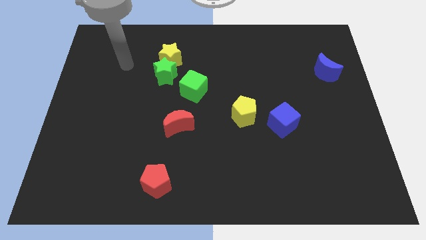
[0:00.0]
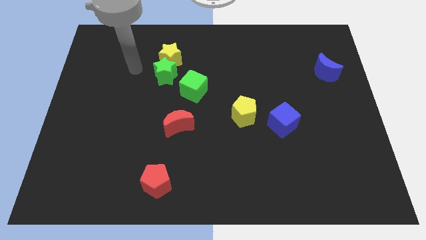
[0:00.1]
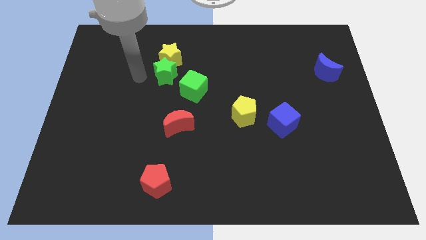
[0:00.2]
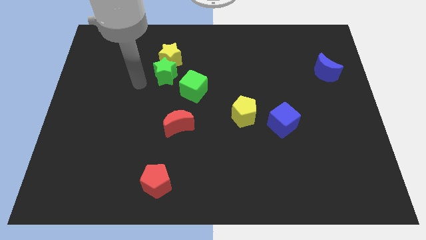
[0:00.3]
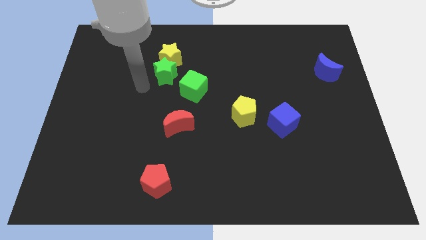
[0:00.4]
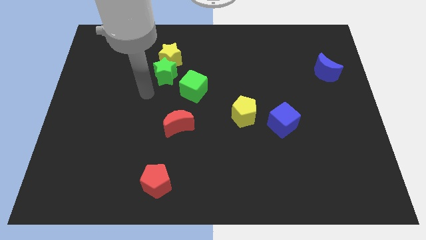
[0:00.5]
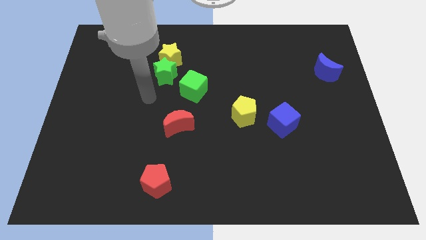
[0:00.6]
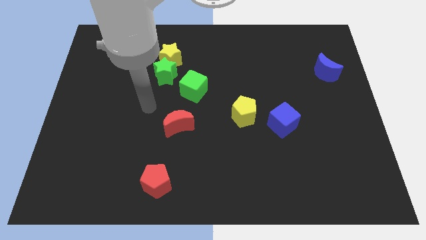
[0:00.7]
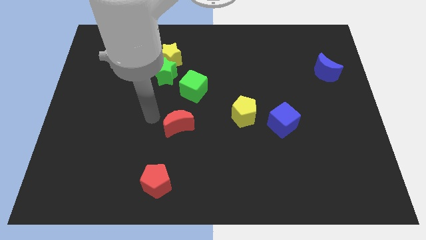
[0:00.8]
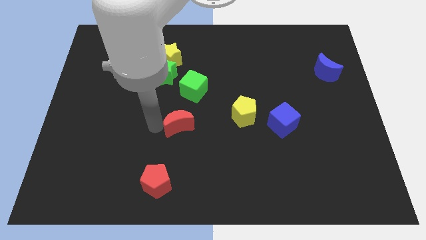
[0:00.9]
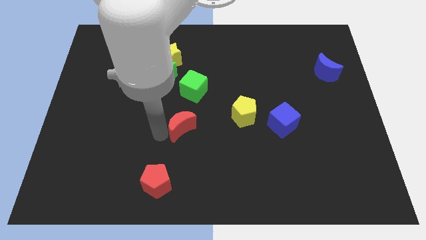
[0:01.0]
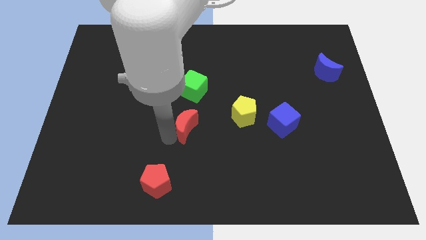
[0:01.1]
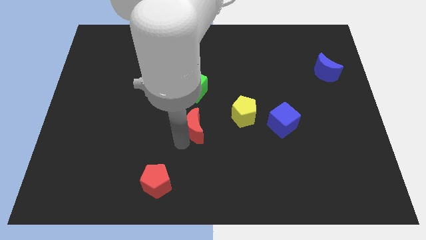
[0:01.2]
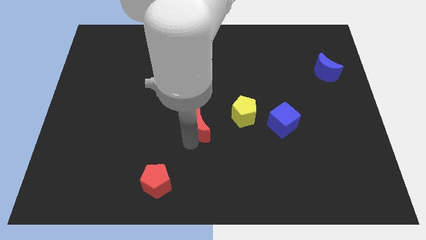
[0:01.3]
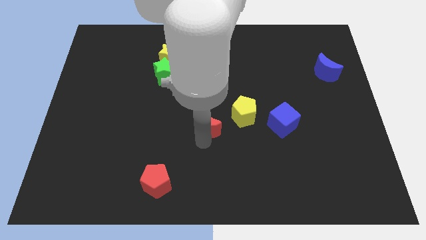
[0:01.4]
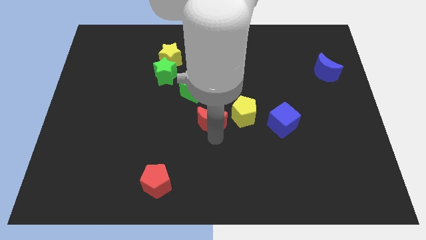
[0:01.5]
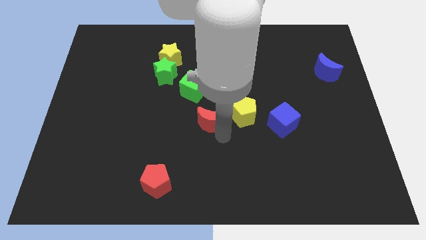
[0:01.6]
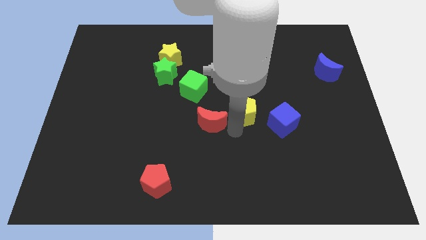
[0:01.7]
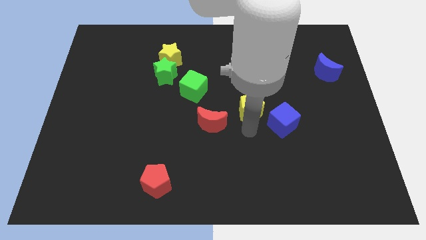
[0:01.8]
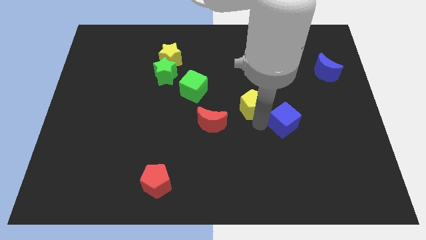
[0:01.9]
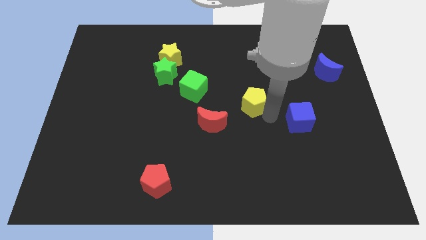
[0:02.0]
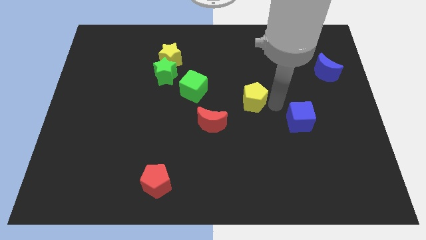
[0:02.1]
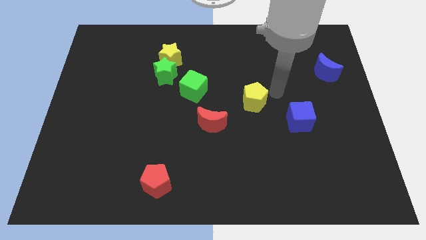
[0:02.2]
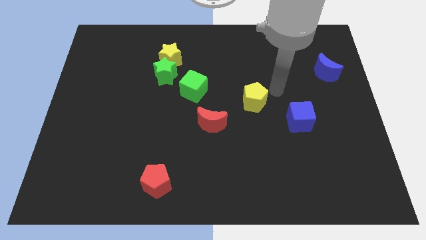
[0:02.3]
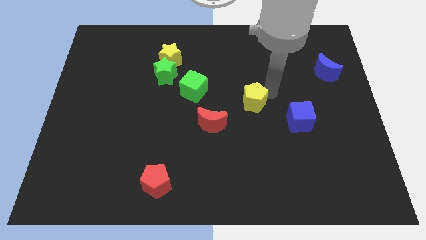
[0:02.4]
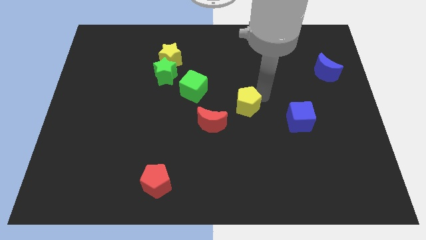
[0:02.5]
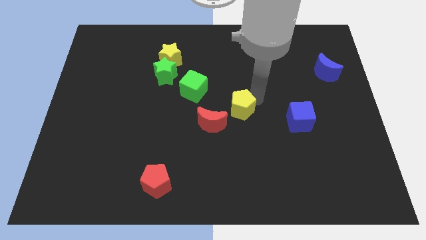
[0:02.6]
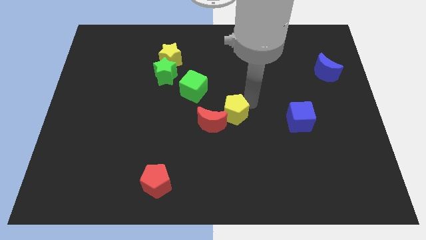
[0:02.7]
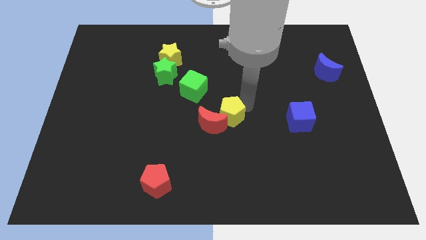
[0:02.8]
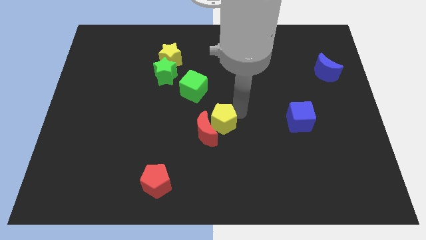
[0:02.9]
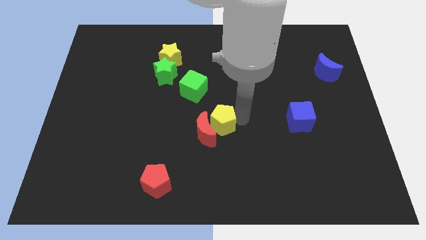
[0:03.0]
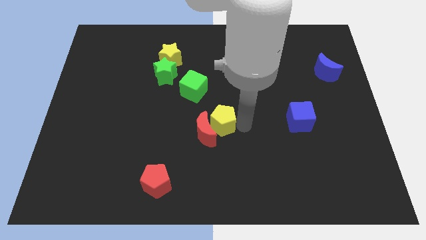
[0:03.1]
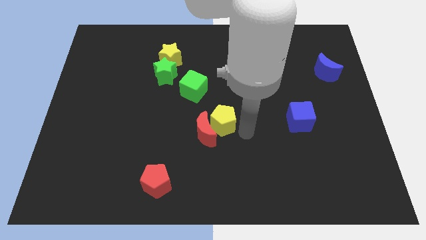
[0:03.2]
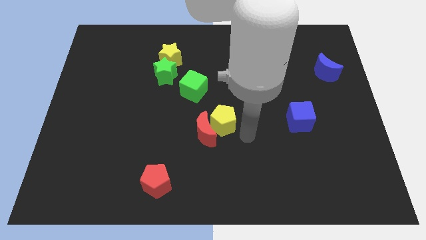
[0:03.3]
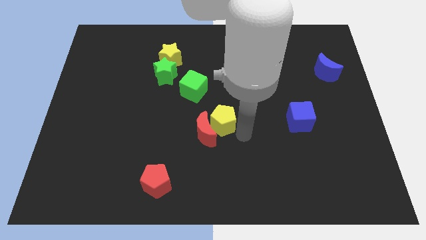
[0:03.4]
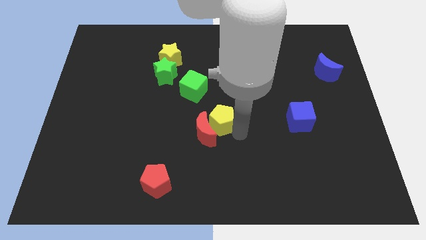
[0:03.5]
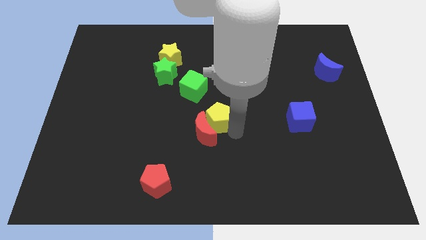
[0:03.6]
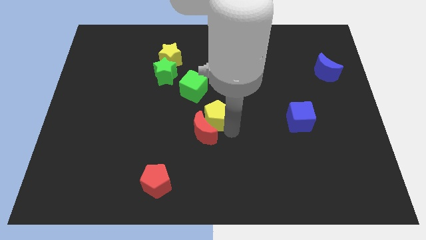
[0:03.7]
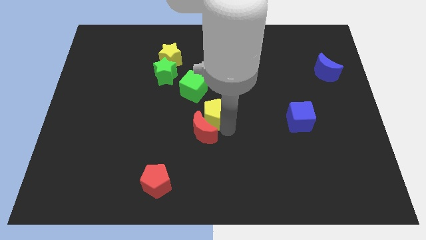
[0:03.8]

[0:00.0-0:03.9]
slightly slide the yellow pentagon to the left

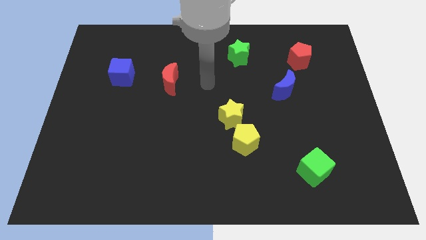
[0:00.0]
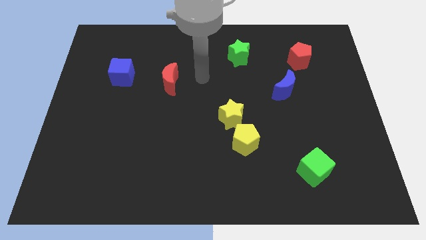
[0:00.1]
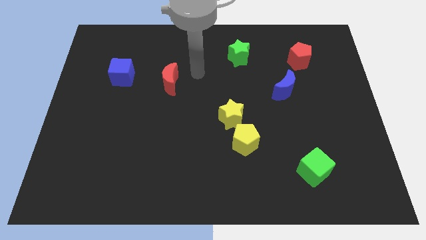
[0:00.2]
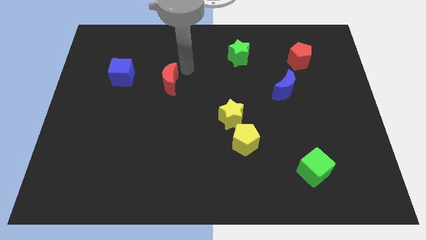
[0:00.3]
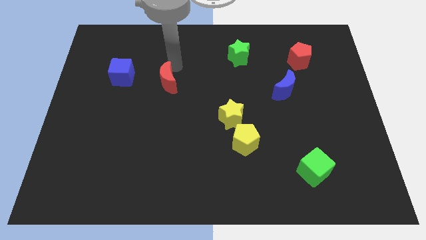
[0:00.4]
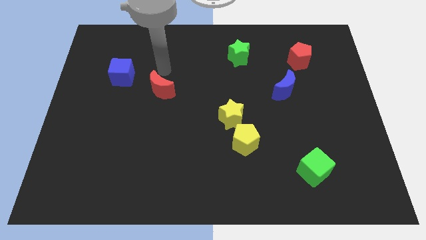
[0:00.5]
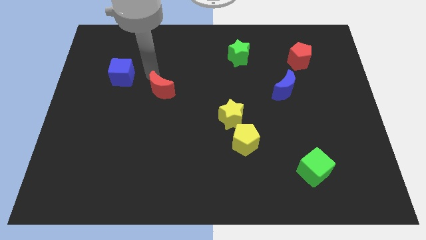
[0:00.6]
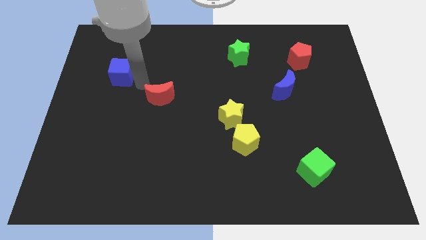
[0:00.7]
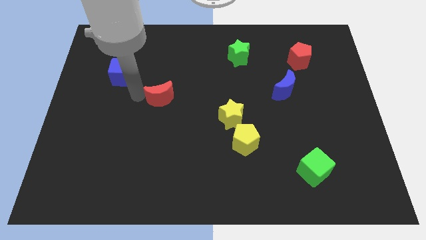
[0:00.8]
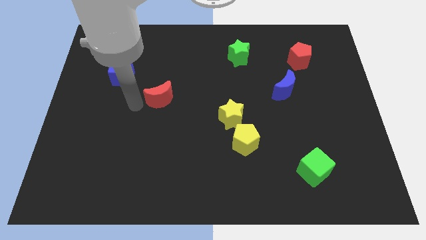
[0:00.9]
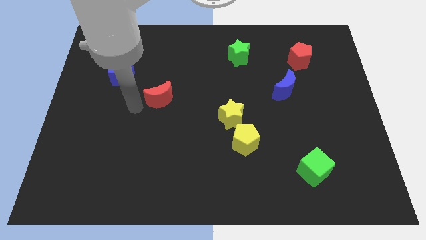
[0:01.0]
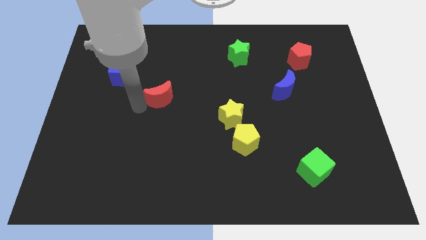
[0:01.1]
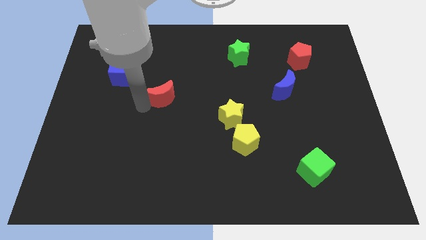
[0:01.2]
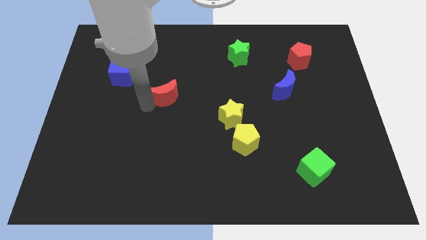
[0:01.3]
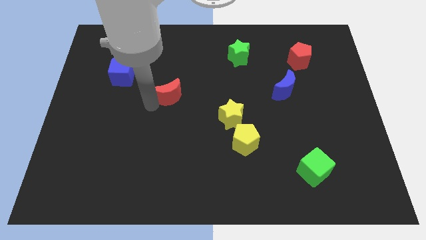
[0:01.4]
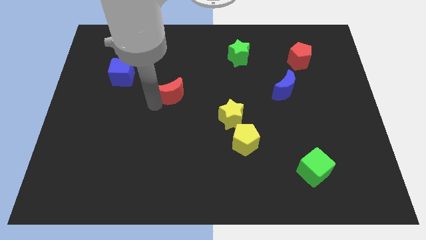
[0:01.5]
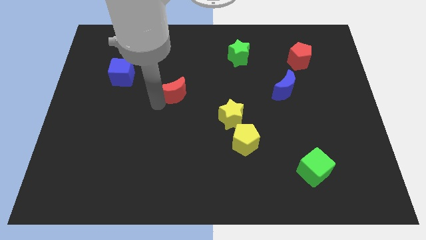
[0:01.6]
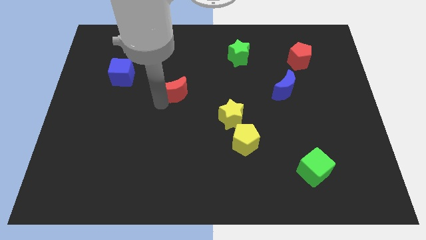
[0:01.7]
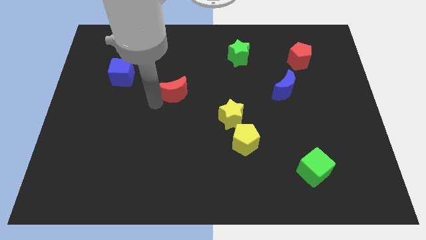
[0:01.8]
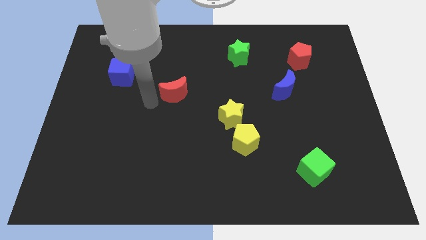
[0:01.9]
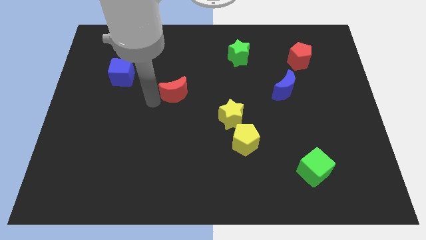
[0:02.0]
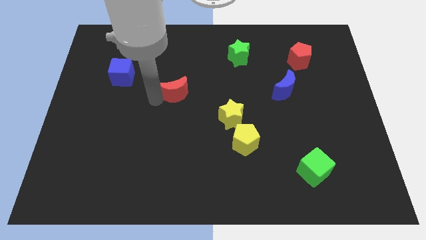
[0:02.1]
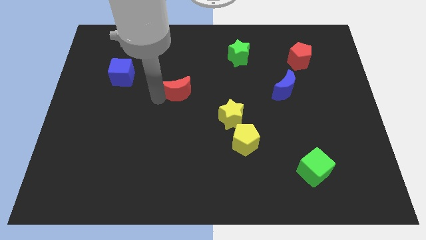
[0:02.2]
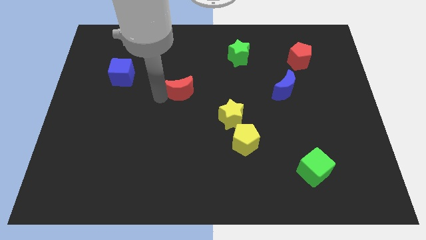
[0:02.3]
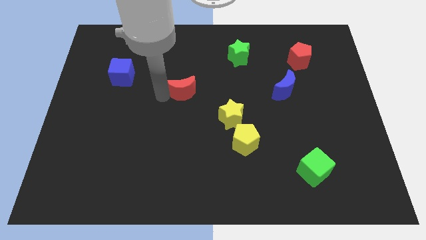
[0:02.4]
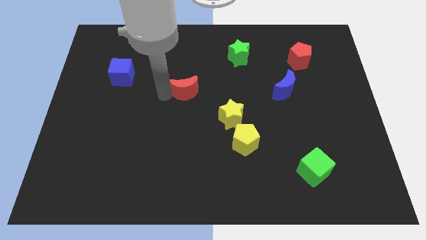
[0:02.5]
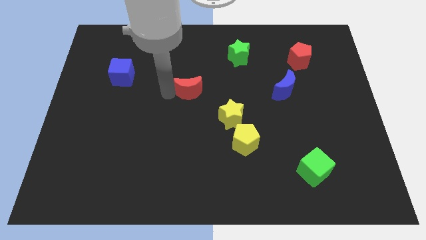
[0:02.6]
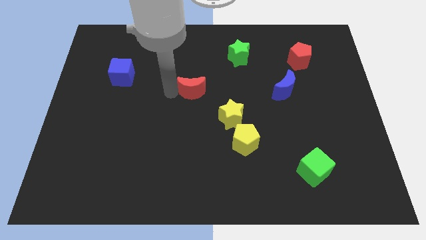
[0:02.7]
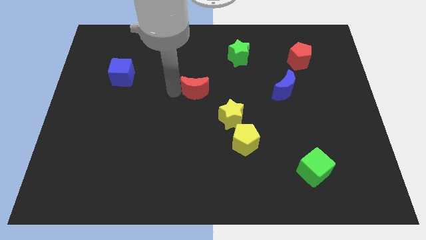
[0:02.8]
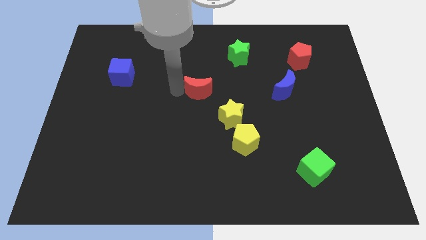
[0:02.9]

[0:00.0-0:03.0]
push the red moon to the right somewhat

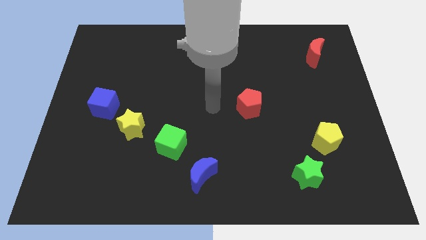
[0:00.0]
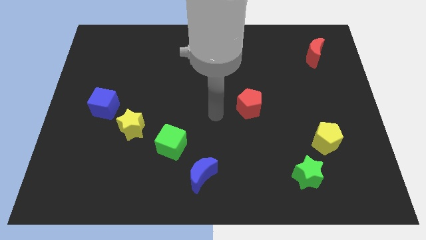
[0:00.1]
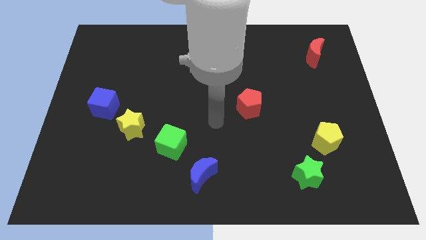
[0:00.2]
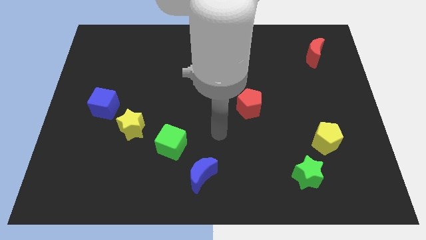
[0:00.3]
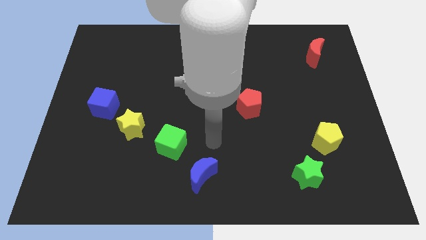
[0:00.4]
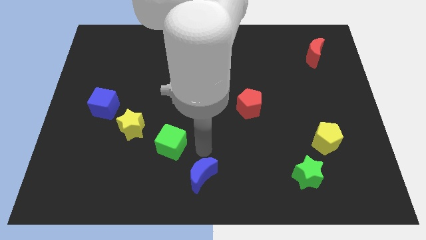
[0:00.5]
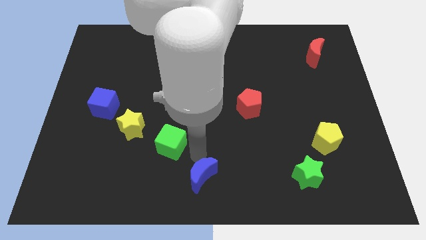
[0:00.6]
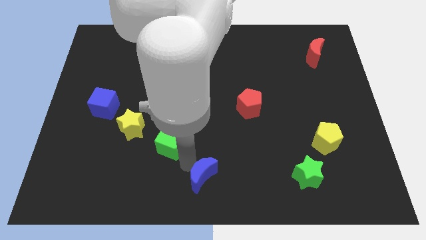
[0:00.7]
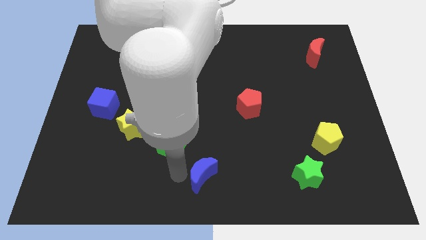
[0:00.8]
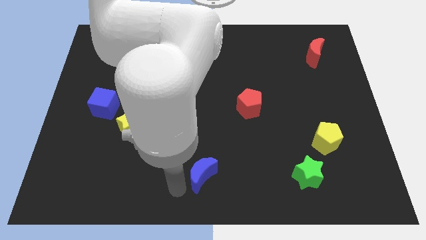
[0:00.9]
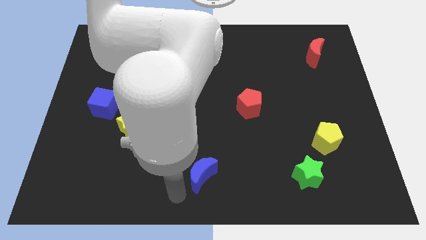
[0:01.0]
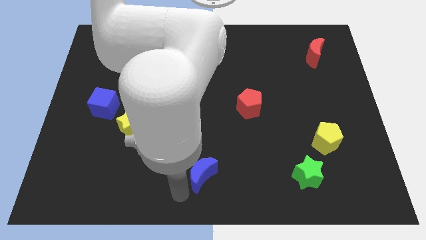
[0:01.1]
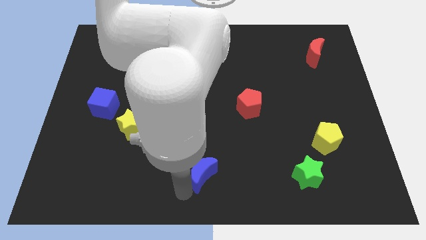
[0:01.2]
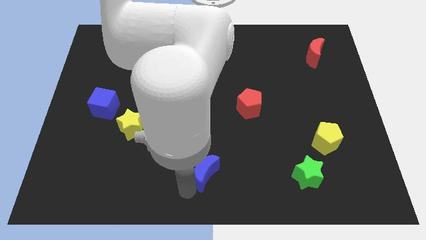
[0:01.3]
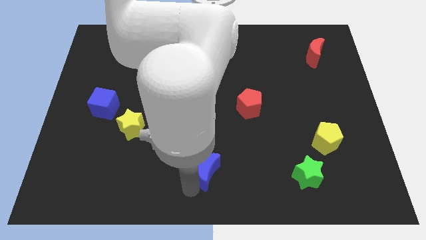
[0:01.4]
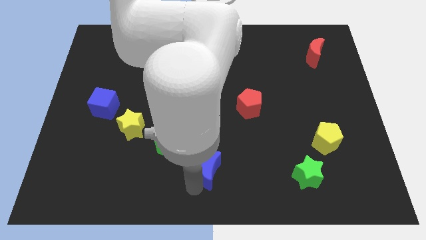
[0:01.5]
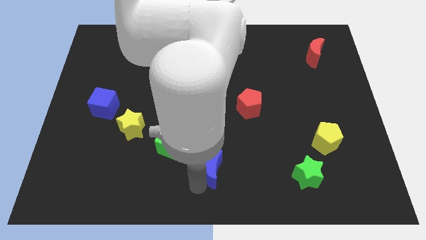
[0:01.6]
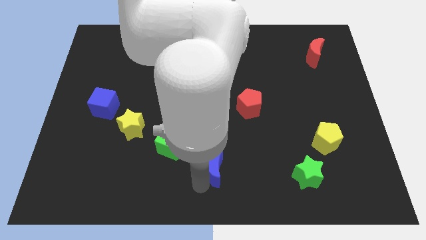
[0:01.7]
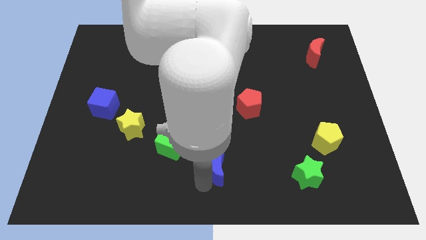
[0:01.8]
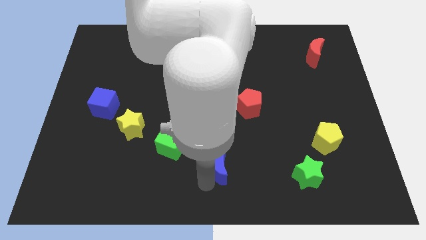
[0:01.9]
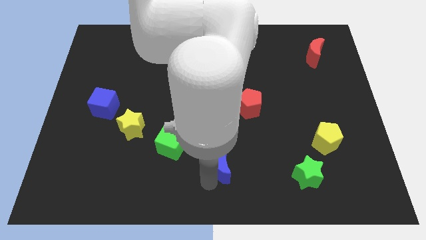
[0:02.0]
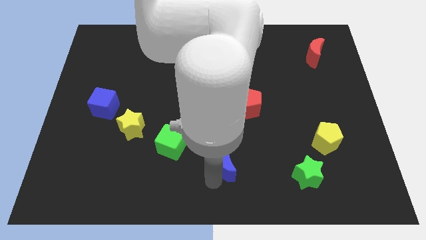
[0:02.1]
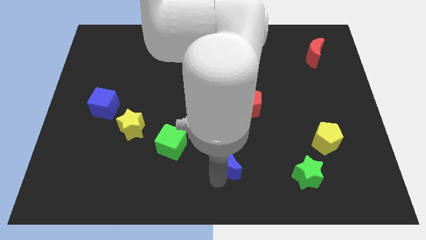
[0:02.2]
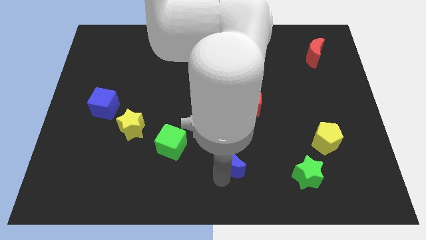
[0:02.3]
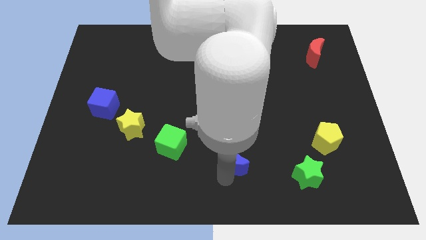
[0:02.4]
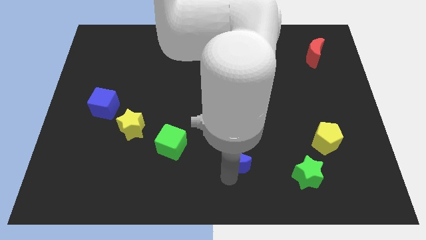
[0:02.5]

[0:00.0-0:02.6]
push the blue moon a little bit upwards and right
